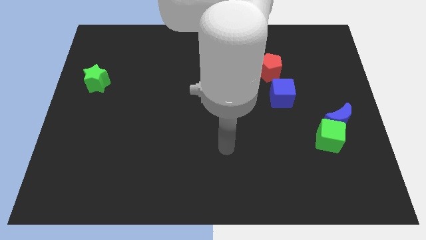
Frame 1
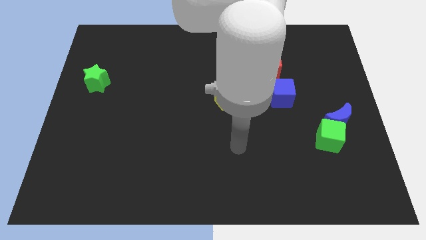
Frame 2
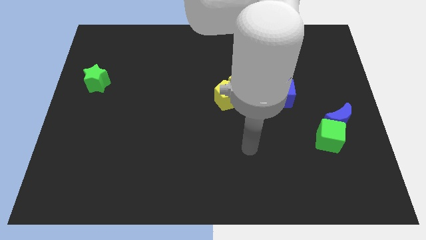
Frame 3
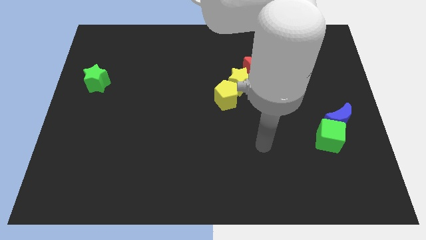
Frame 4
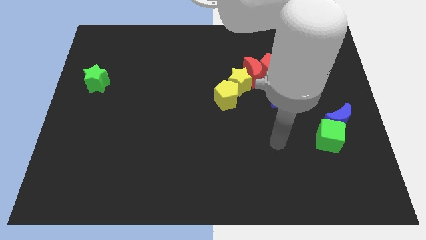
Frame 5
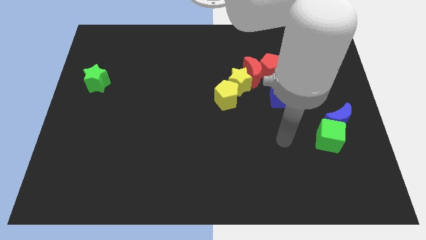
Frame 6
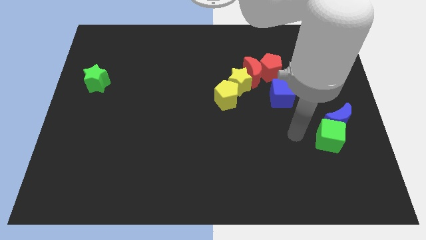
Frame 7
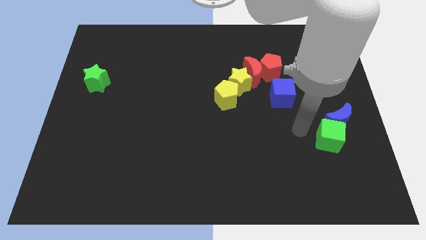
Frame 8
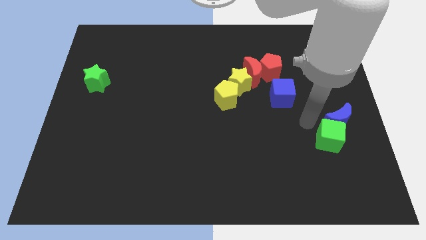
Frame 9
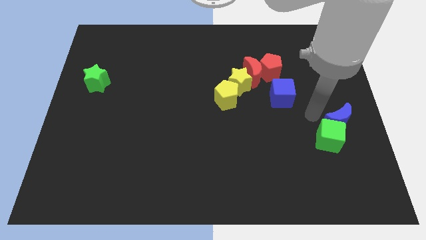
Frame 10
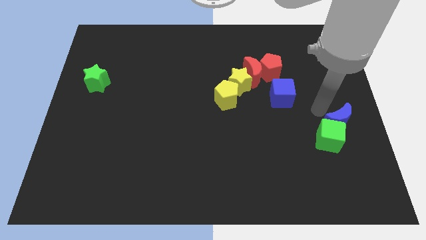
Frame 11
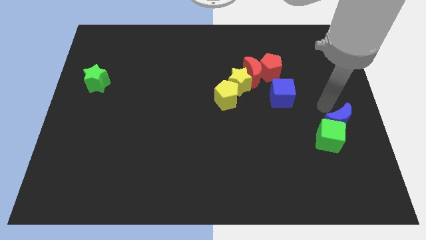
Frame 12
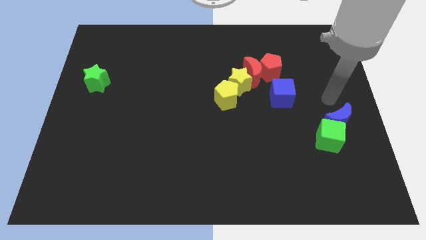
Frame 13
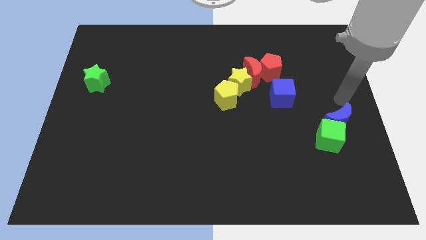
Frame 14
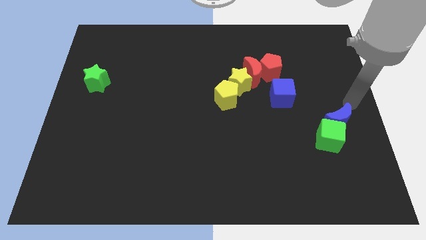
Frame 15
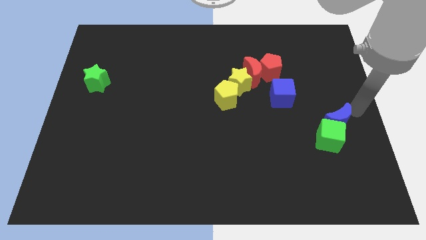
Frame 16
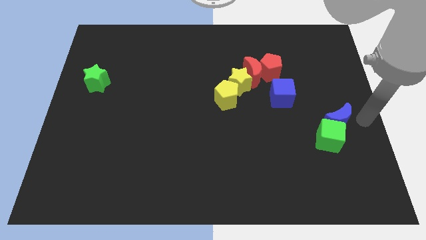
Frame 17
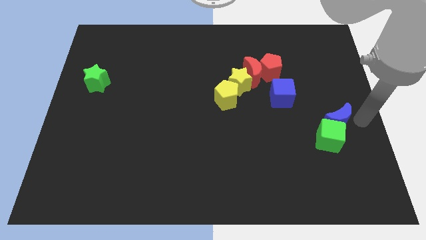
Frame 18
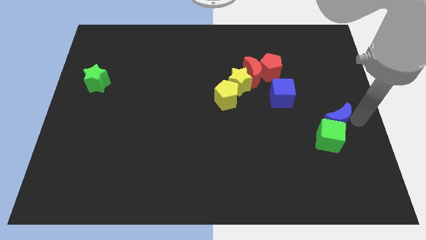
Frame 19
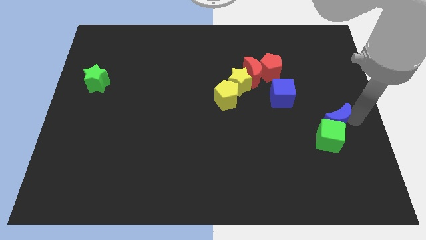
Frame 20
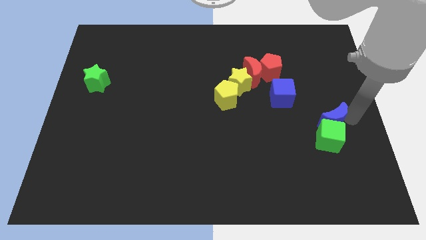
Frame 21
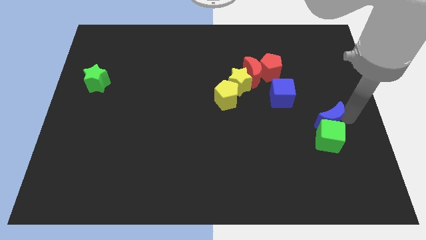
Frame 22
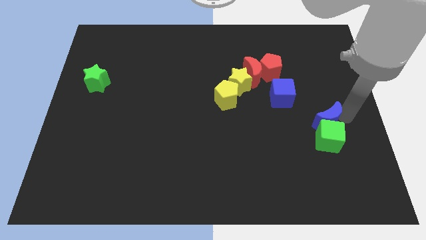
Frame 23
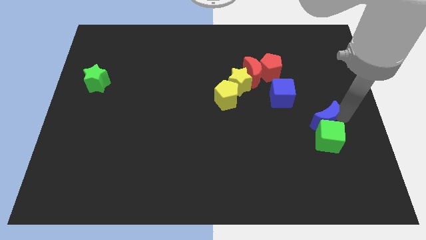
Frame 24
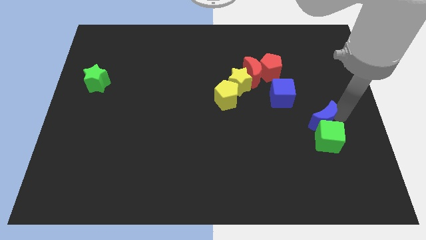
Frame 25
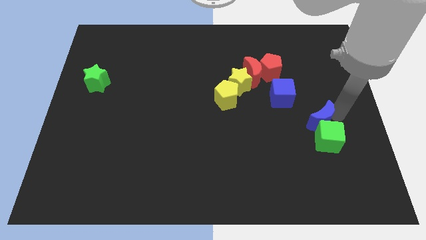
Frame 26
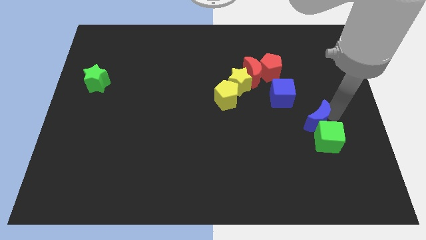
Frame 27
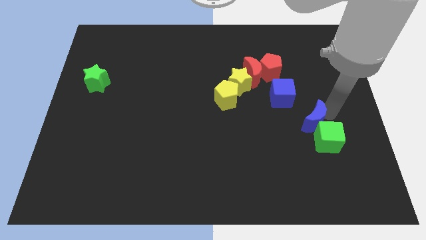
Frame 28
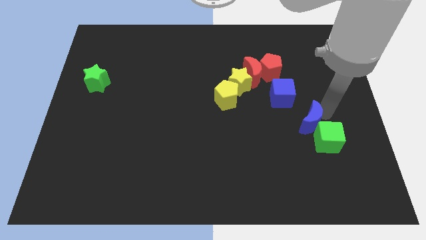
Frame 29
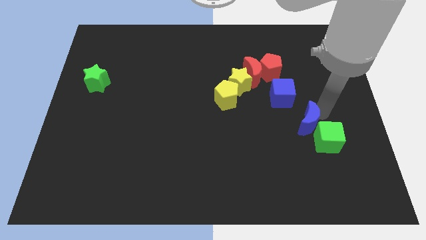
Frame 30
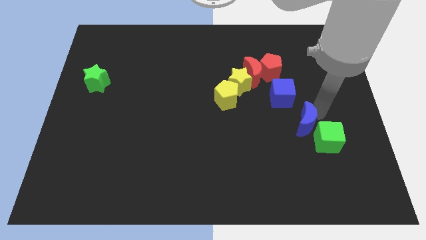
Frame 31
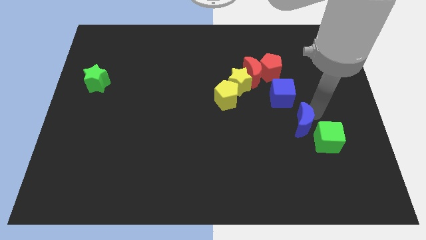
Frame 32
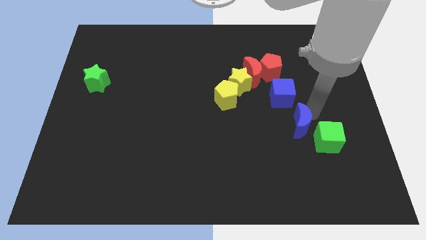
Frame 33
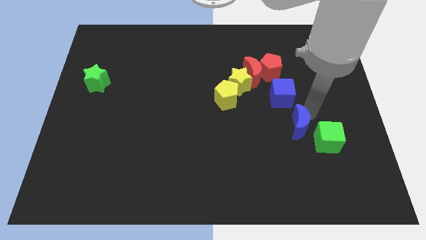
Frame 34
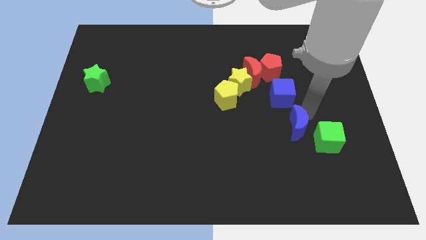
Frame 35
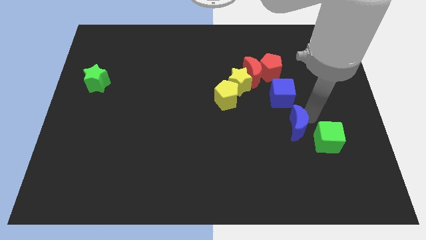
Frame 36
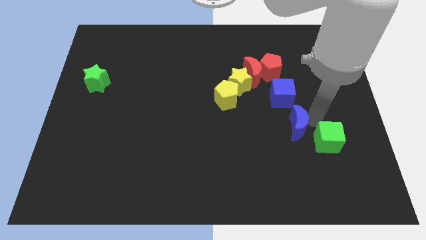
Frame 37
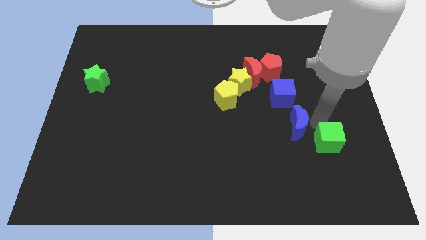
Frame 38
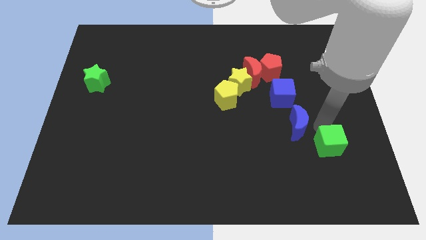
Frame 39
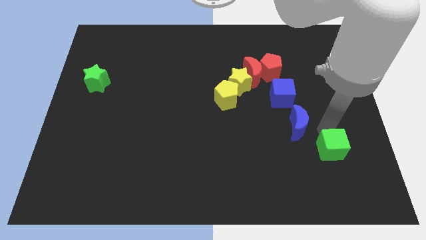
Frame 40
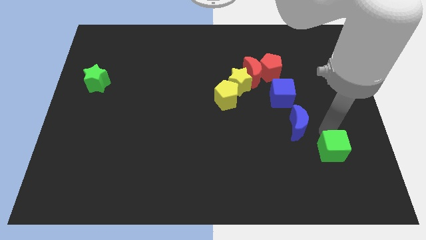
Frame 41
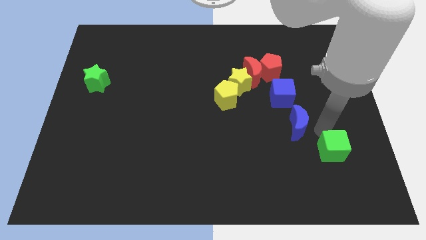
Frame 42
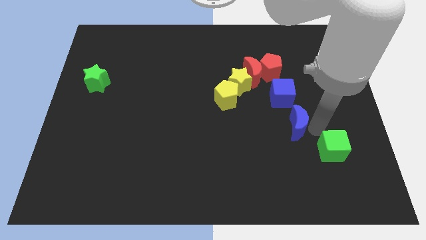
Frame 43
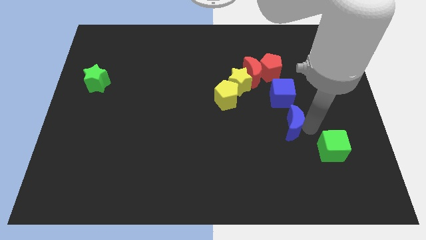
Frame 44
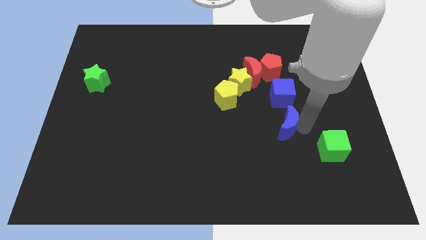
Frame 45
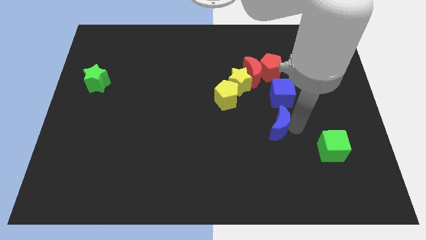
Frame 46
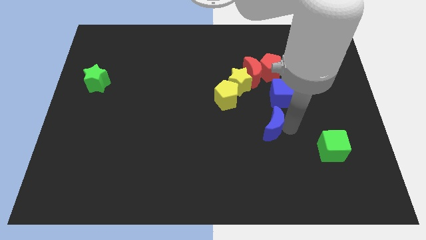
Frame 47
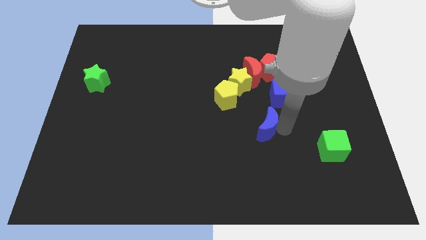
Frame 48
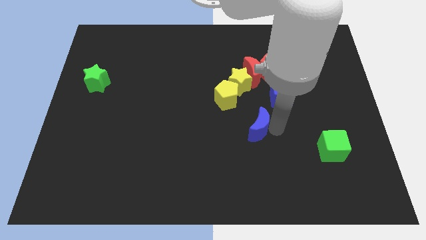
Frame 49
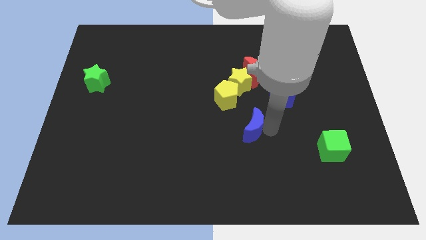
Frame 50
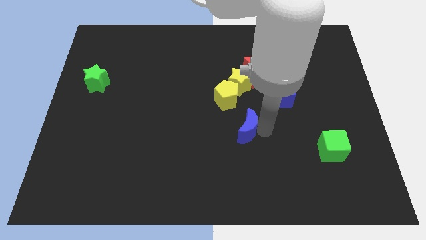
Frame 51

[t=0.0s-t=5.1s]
slide the blue moon left

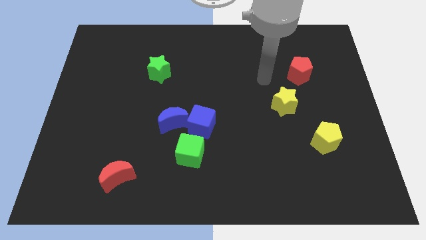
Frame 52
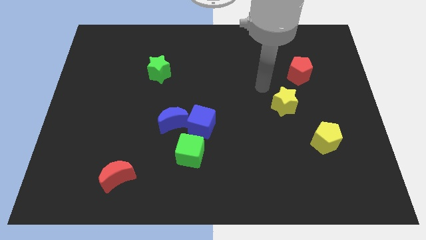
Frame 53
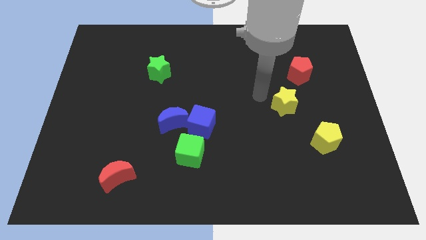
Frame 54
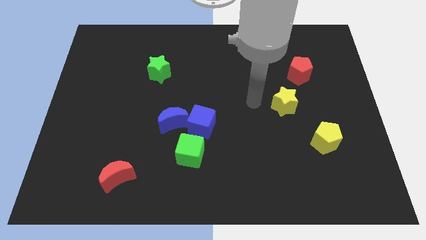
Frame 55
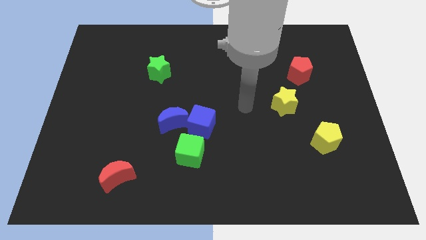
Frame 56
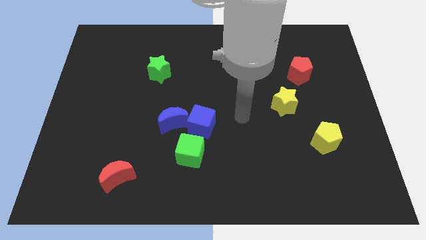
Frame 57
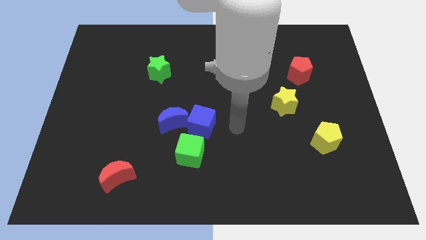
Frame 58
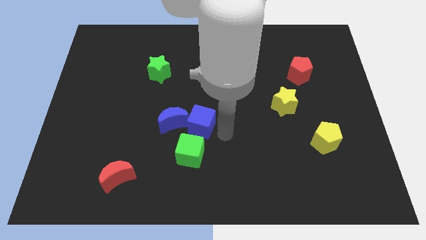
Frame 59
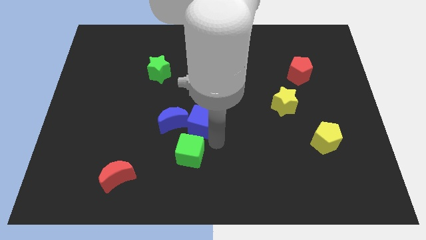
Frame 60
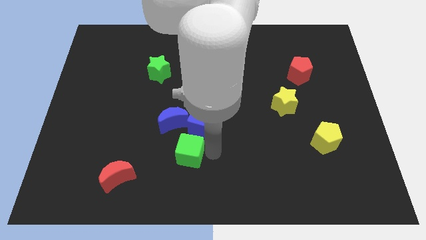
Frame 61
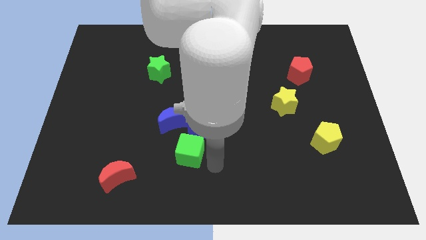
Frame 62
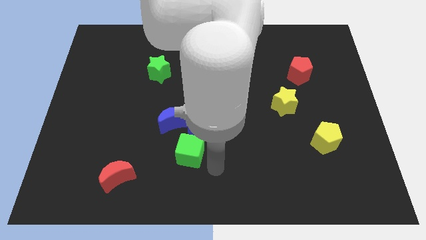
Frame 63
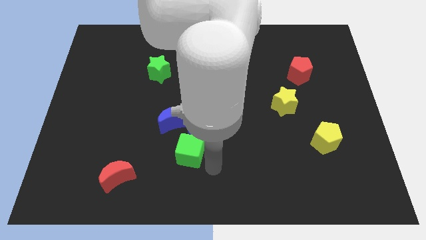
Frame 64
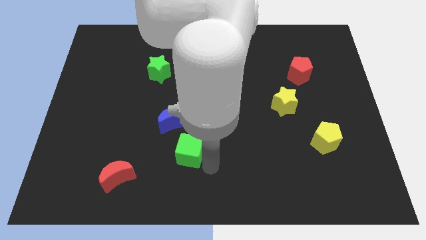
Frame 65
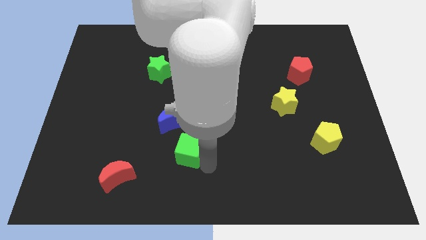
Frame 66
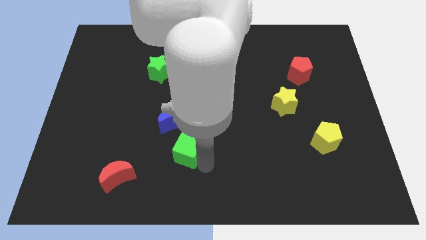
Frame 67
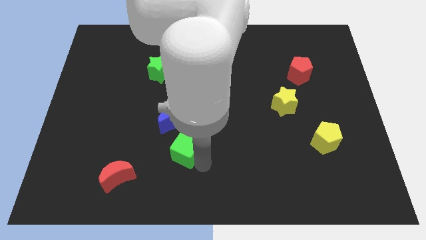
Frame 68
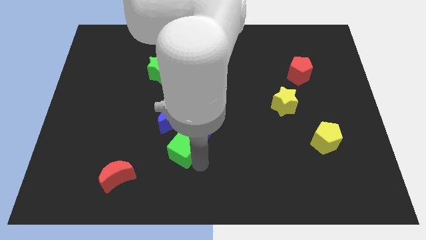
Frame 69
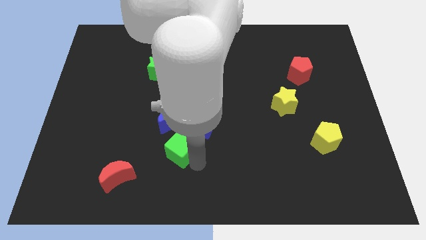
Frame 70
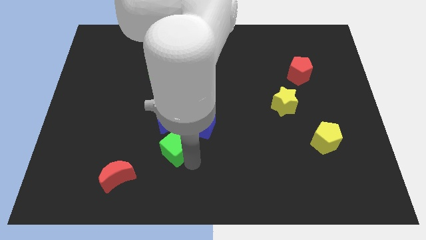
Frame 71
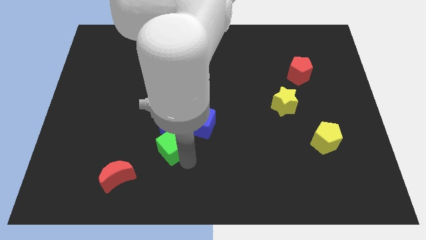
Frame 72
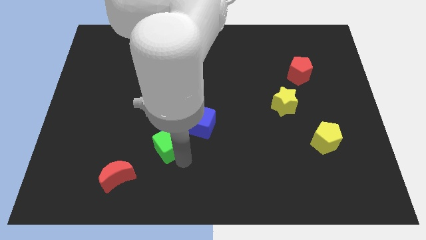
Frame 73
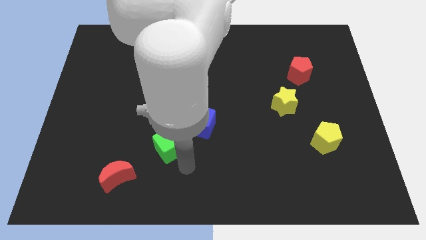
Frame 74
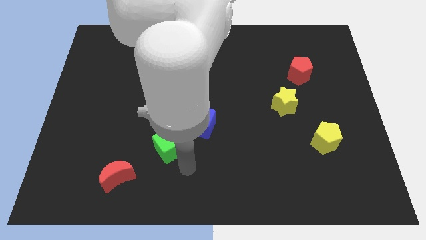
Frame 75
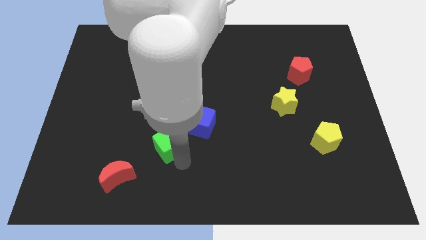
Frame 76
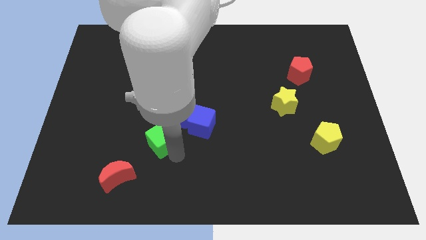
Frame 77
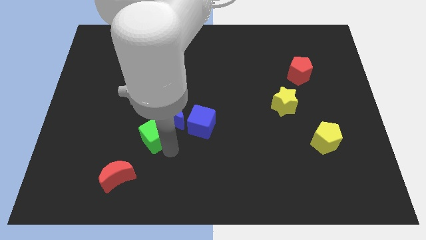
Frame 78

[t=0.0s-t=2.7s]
slightly move the green cube upwards and then left
